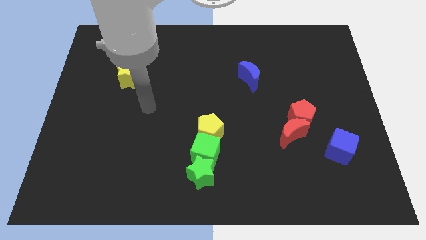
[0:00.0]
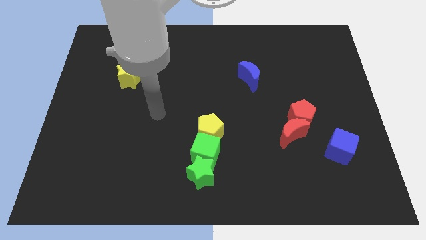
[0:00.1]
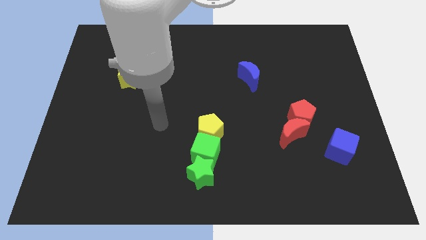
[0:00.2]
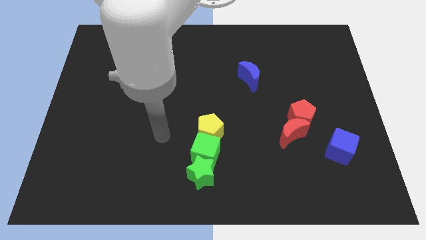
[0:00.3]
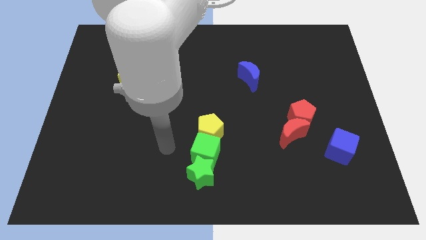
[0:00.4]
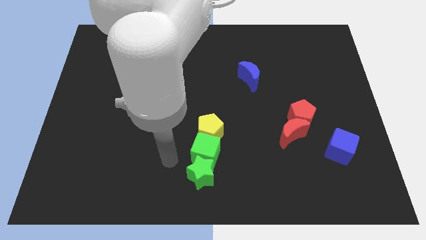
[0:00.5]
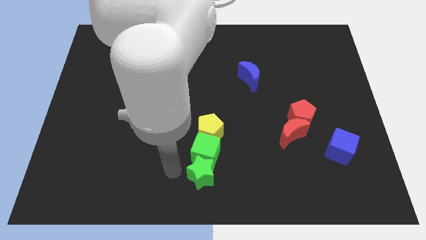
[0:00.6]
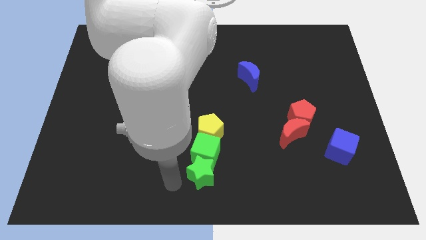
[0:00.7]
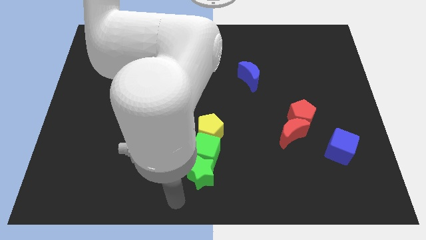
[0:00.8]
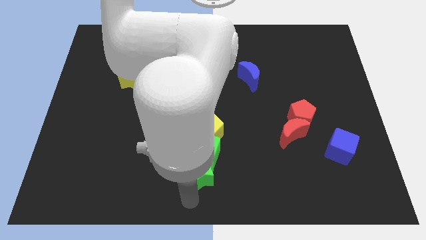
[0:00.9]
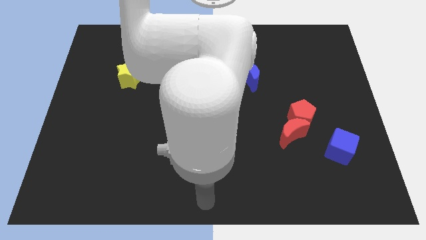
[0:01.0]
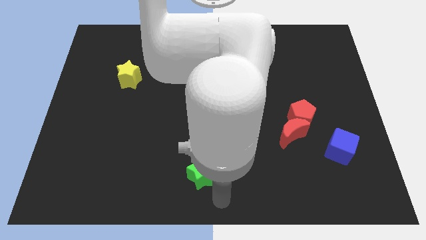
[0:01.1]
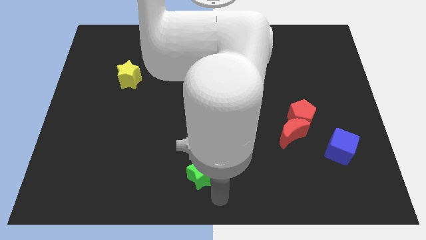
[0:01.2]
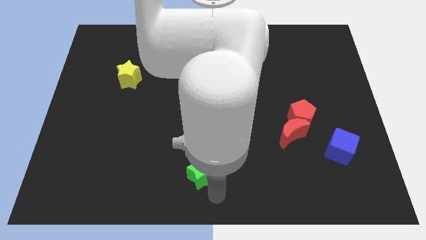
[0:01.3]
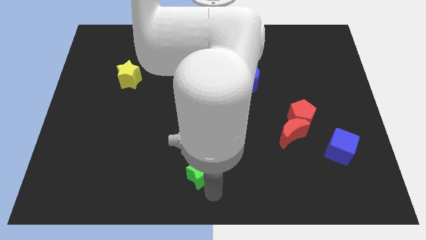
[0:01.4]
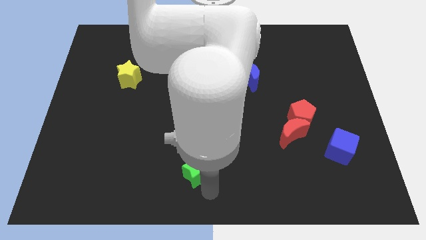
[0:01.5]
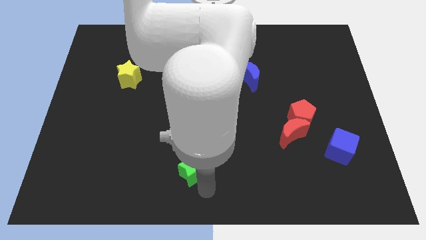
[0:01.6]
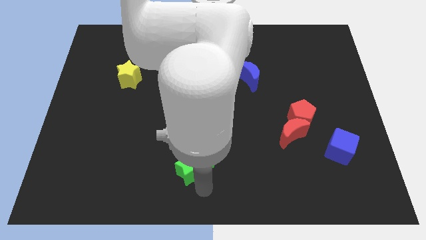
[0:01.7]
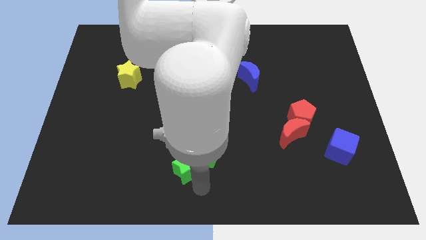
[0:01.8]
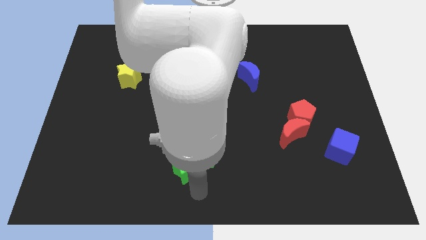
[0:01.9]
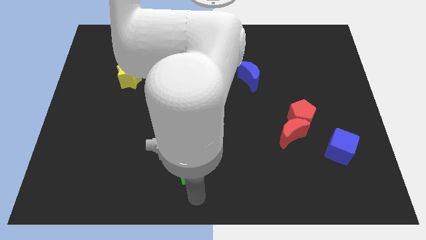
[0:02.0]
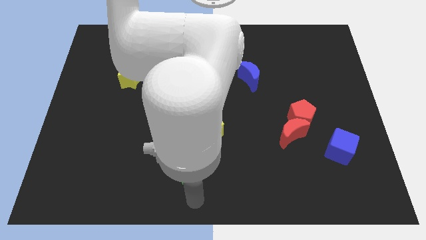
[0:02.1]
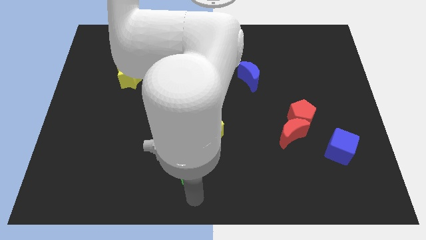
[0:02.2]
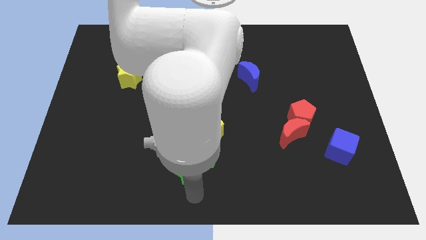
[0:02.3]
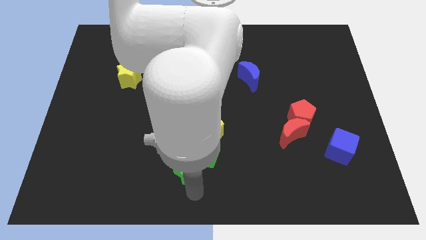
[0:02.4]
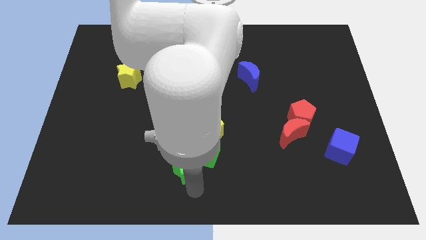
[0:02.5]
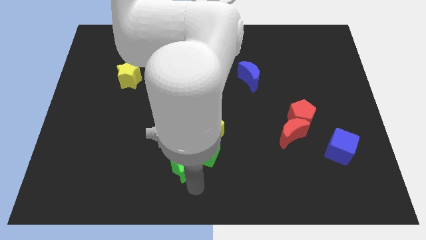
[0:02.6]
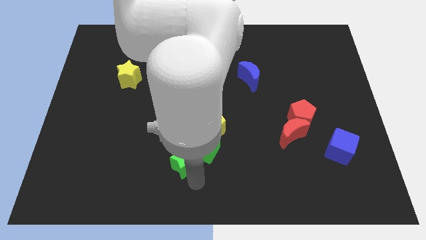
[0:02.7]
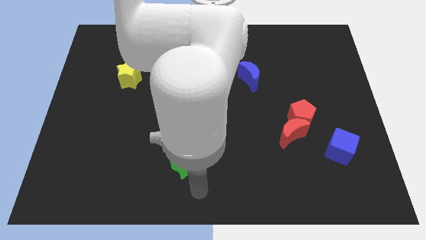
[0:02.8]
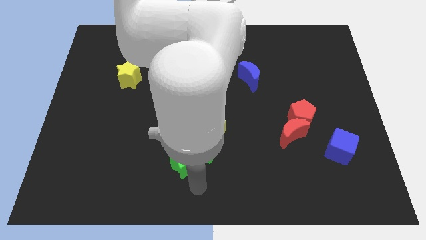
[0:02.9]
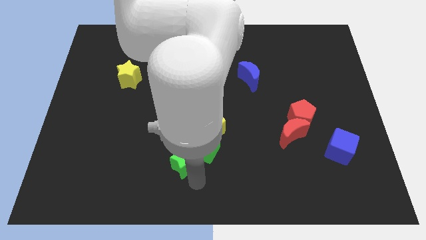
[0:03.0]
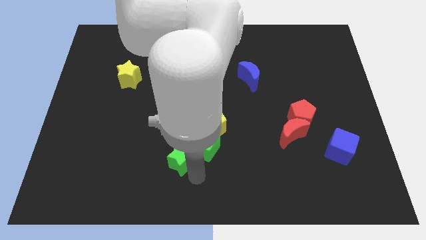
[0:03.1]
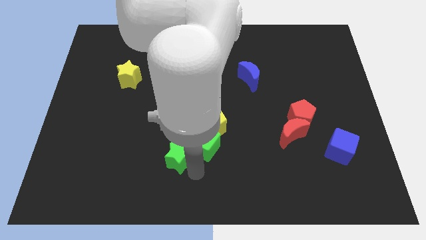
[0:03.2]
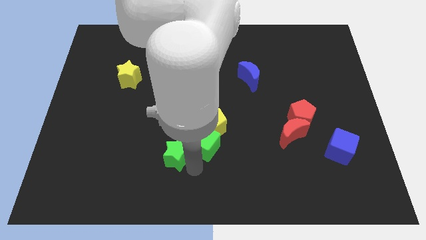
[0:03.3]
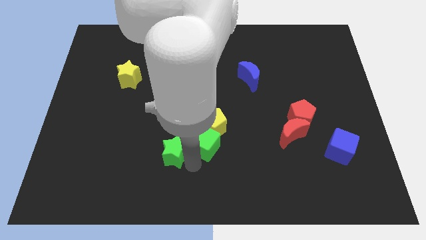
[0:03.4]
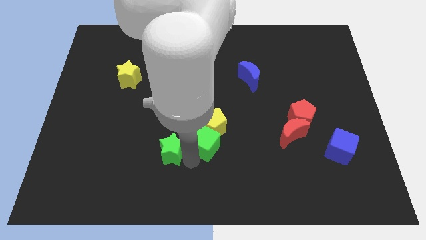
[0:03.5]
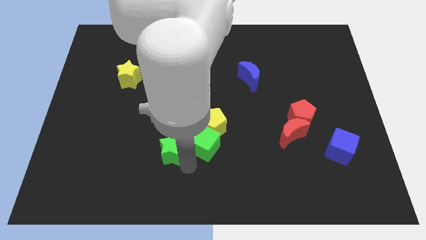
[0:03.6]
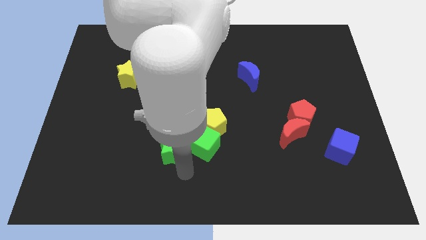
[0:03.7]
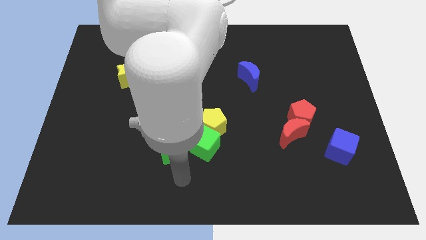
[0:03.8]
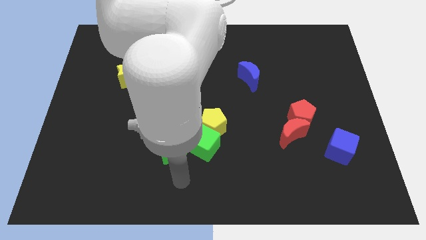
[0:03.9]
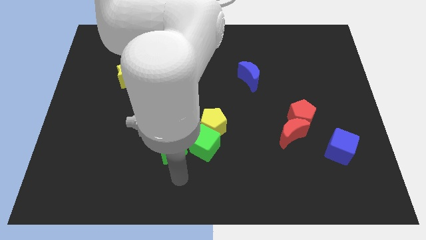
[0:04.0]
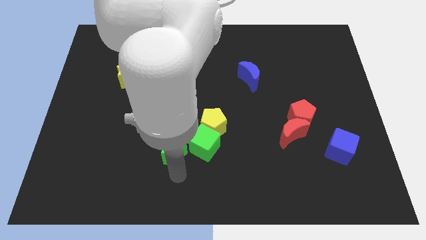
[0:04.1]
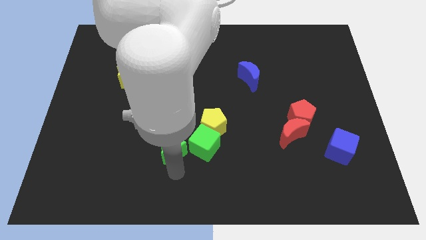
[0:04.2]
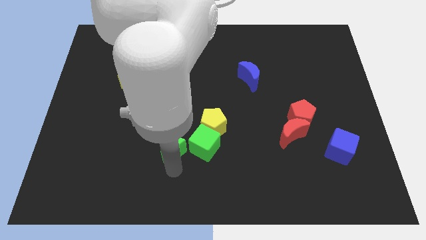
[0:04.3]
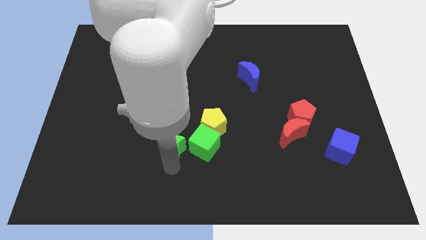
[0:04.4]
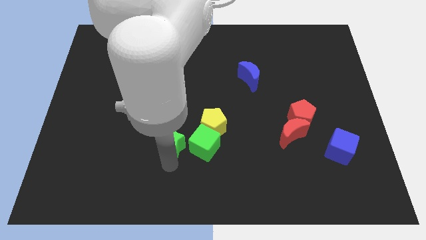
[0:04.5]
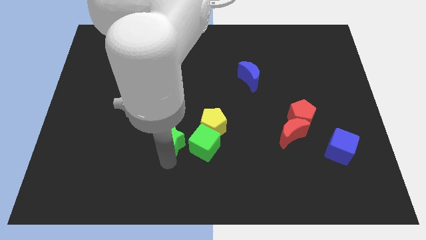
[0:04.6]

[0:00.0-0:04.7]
push the green star left of the yellow pentagon

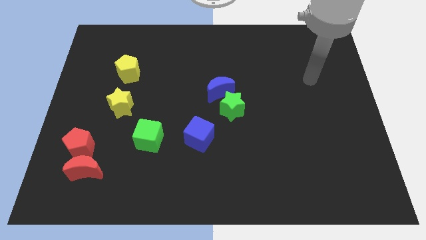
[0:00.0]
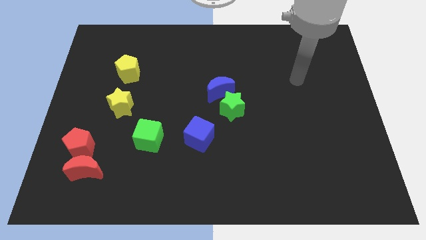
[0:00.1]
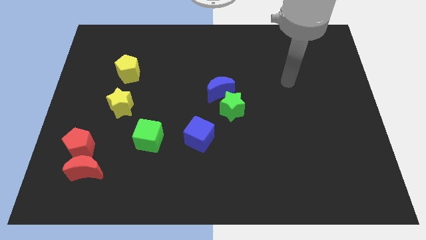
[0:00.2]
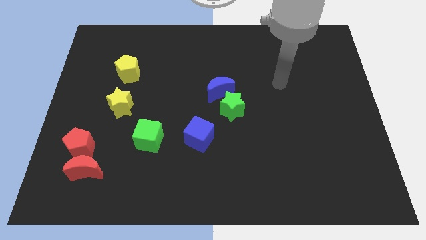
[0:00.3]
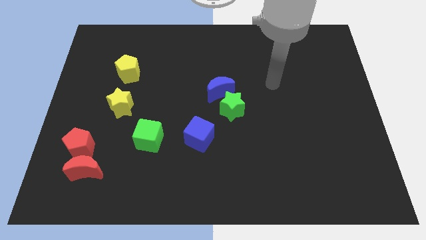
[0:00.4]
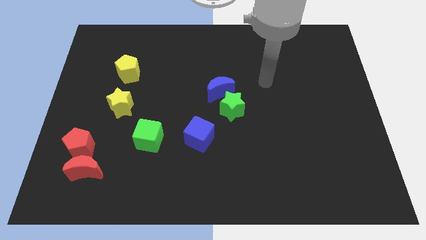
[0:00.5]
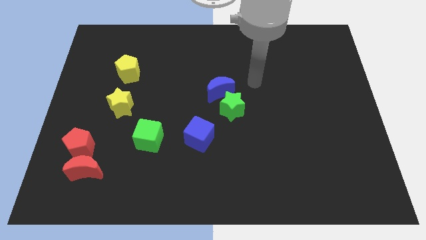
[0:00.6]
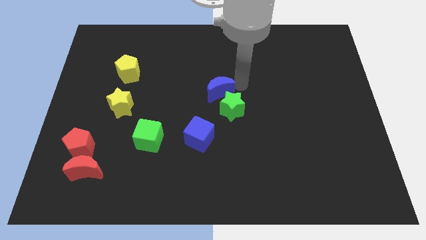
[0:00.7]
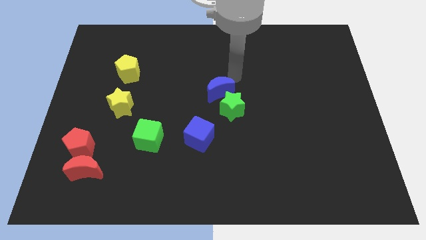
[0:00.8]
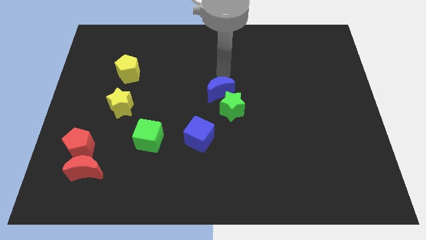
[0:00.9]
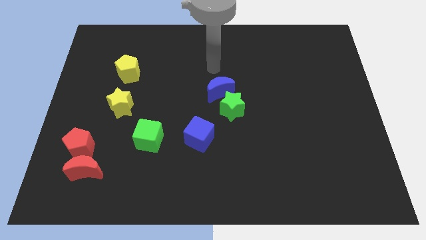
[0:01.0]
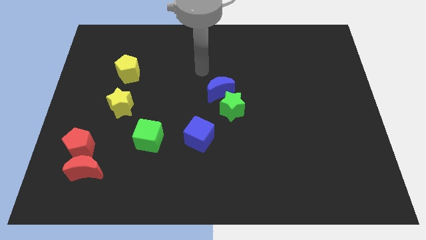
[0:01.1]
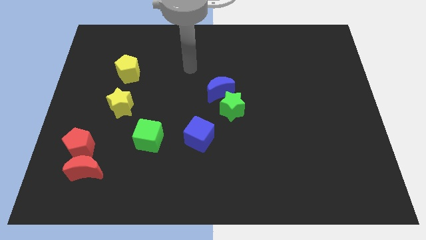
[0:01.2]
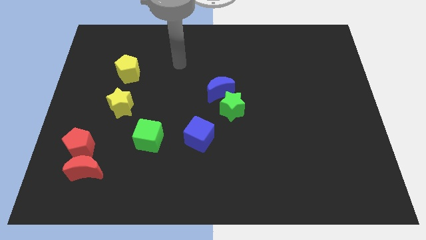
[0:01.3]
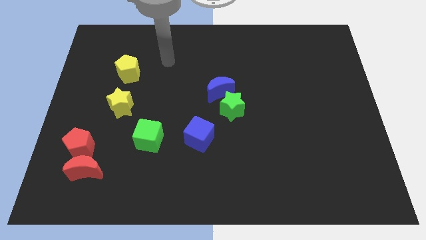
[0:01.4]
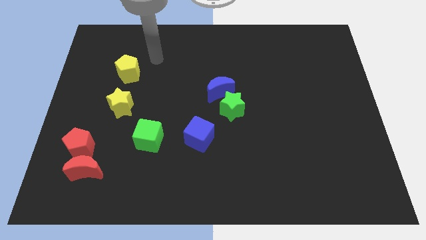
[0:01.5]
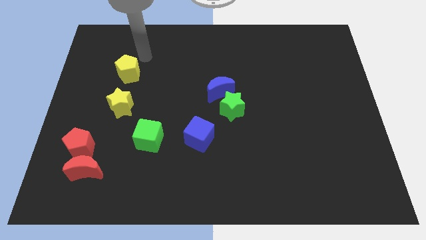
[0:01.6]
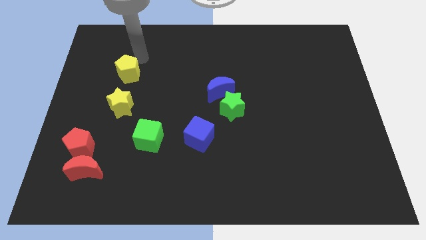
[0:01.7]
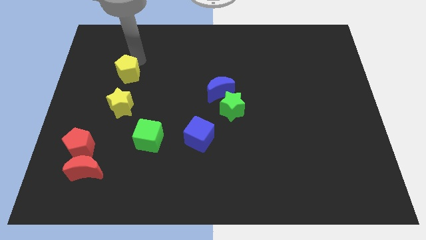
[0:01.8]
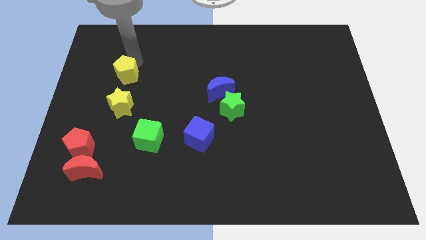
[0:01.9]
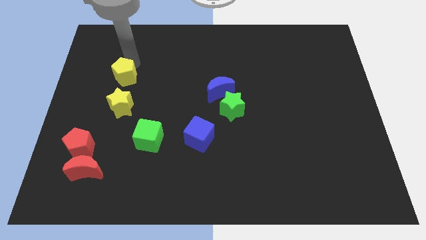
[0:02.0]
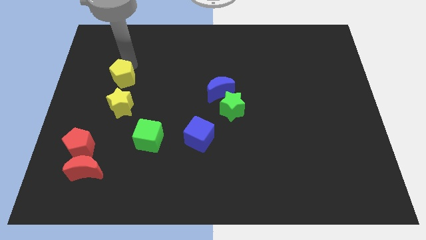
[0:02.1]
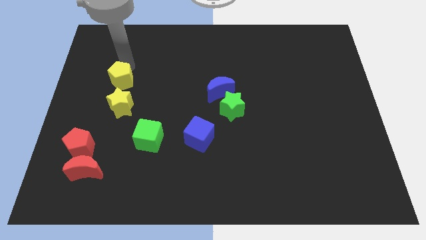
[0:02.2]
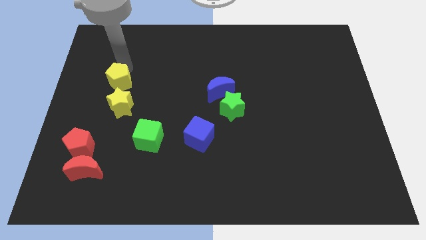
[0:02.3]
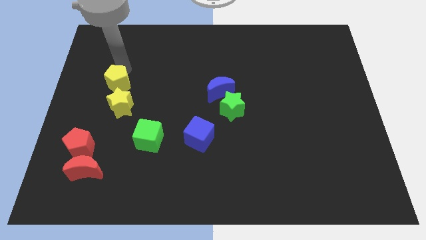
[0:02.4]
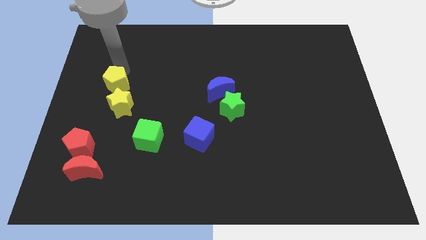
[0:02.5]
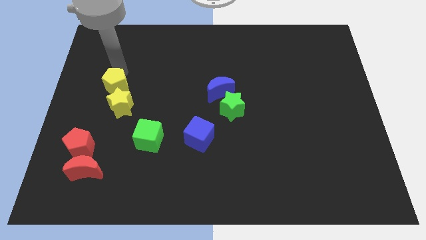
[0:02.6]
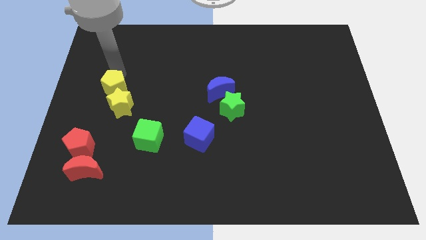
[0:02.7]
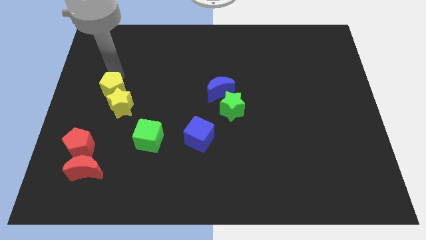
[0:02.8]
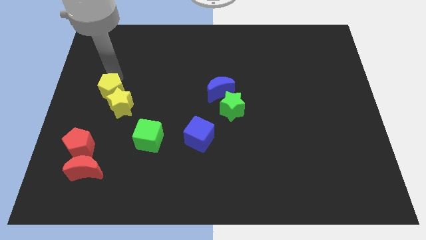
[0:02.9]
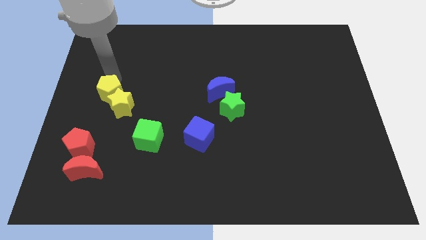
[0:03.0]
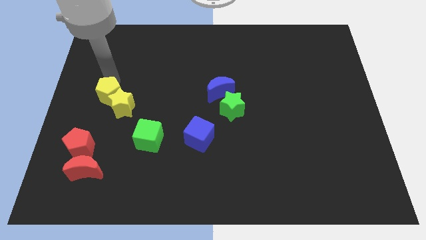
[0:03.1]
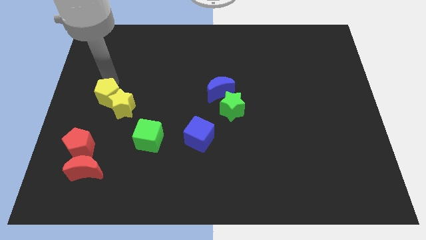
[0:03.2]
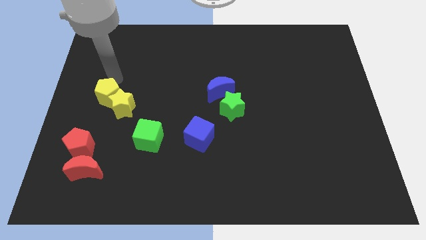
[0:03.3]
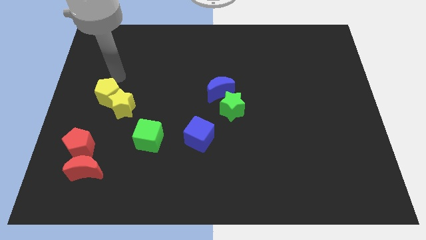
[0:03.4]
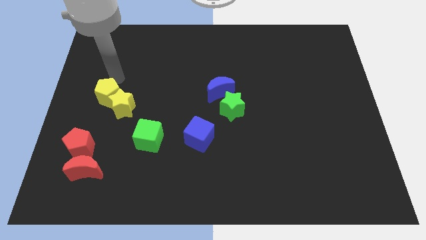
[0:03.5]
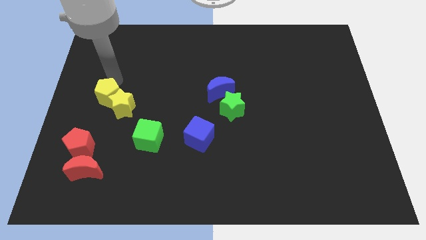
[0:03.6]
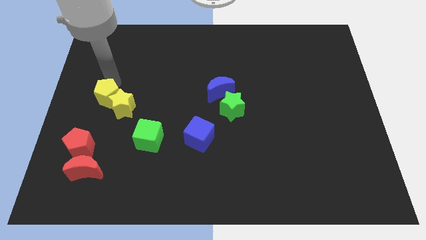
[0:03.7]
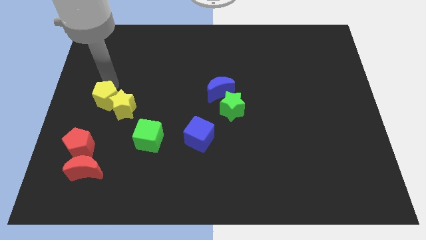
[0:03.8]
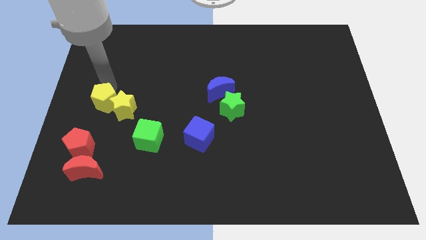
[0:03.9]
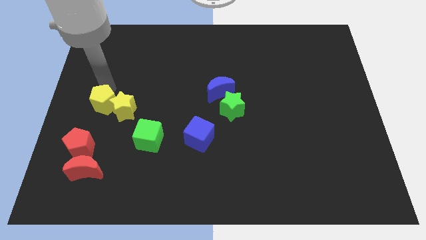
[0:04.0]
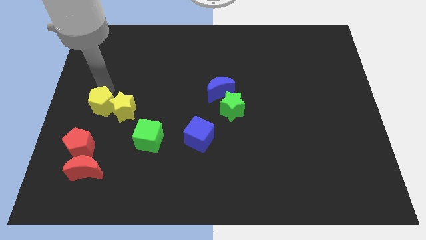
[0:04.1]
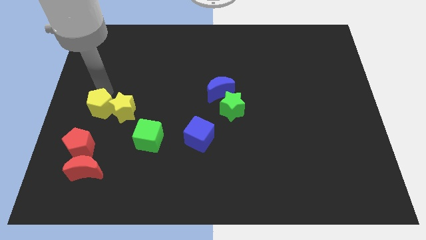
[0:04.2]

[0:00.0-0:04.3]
move the yellow pentagon to the top side of the red moon
